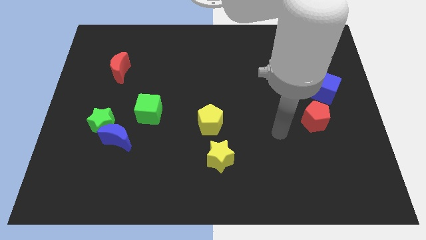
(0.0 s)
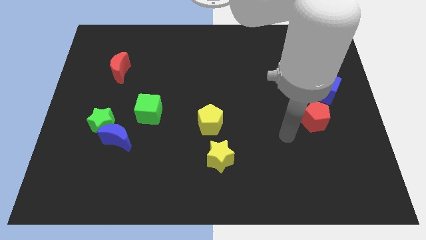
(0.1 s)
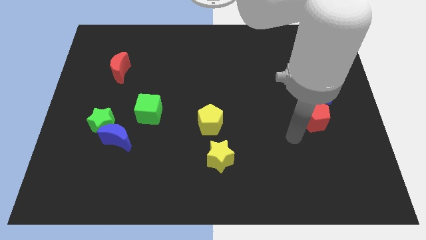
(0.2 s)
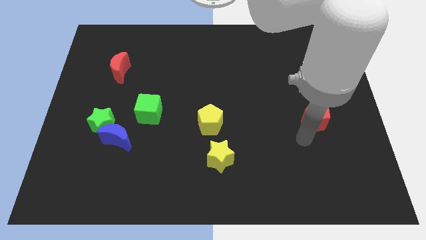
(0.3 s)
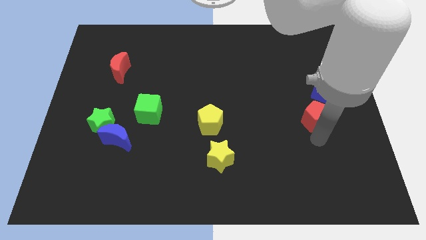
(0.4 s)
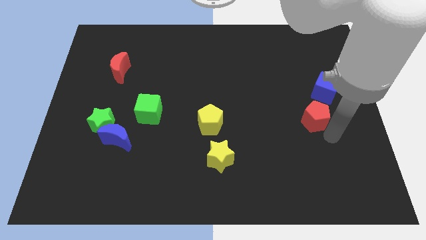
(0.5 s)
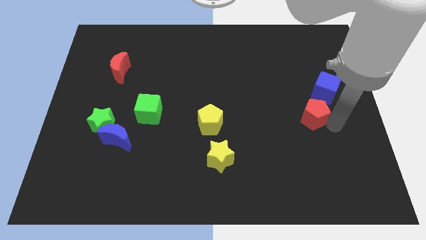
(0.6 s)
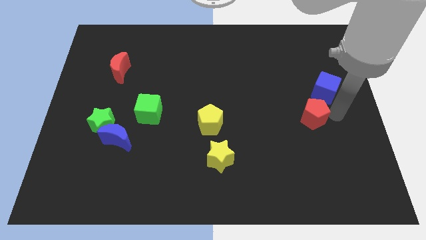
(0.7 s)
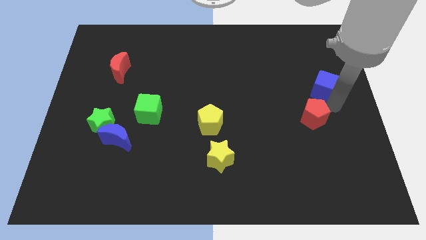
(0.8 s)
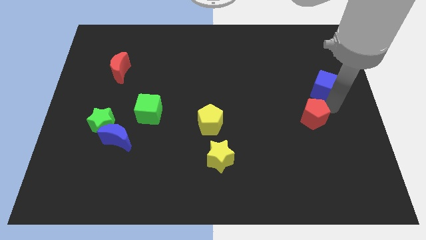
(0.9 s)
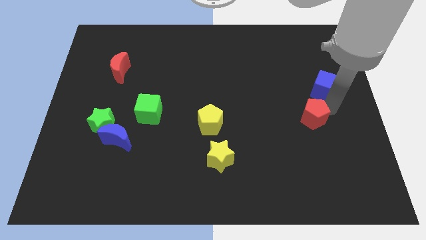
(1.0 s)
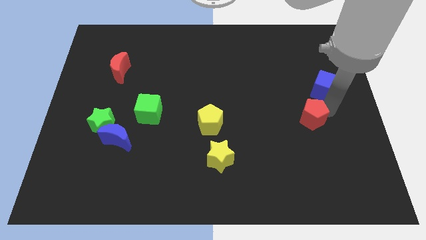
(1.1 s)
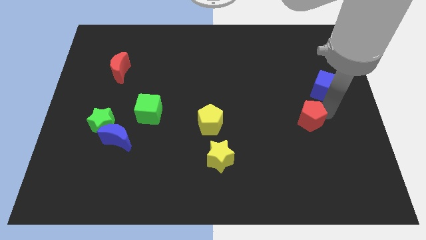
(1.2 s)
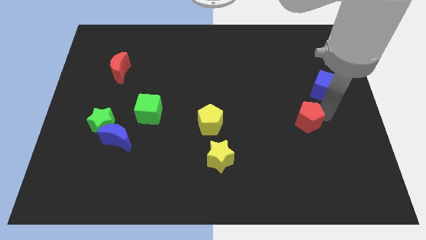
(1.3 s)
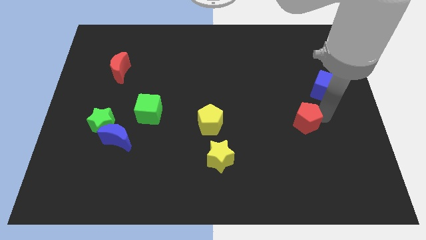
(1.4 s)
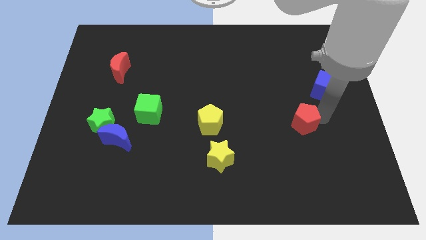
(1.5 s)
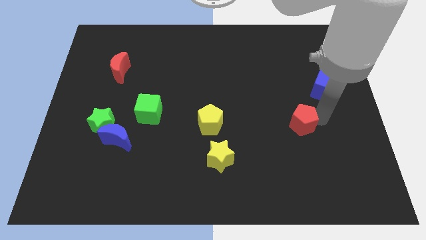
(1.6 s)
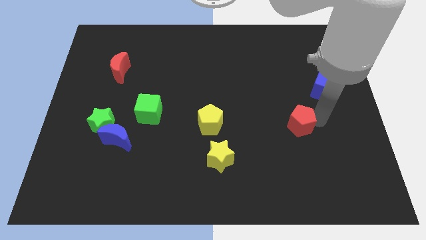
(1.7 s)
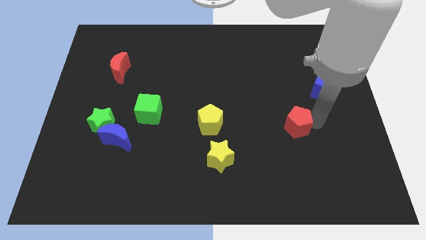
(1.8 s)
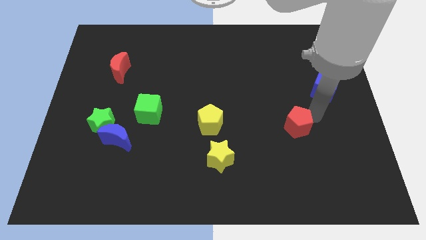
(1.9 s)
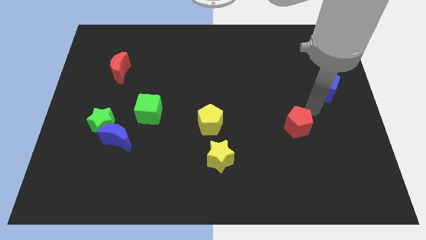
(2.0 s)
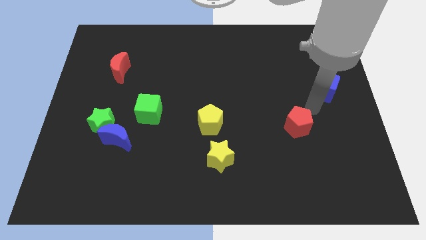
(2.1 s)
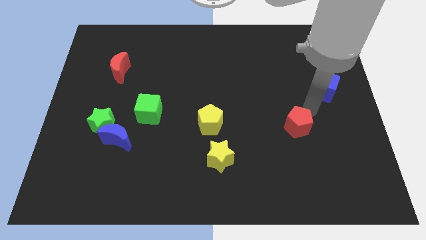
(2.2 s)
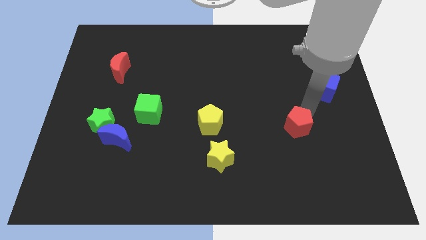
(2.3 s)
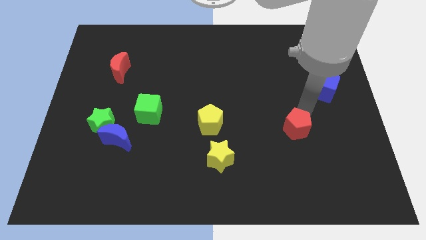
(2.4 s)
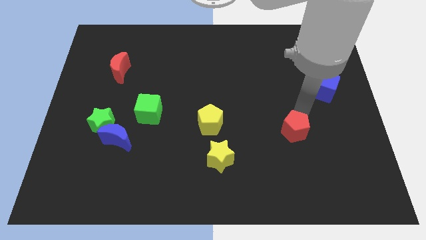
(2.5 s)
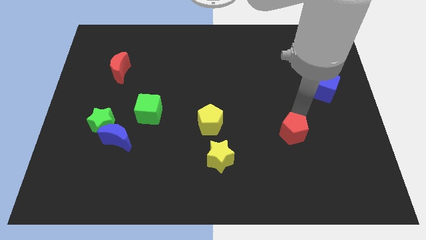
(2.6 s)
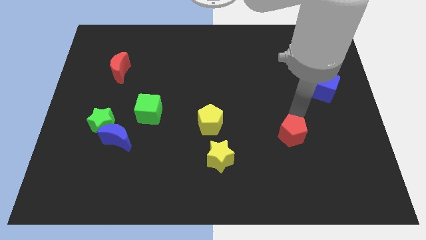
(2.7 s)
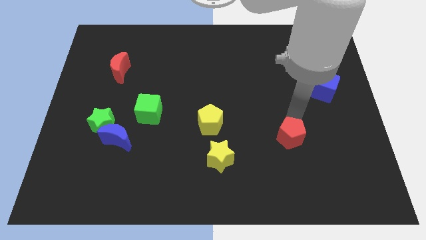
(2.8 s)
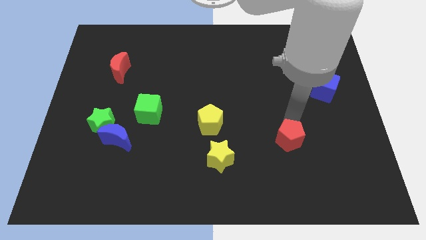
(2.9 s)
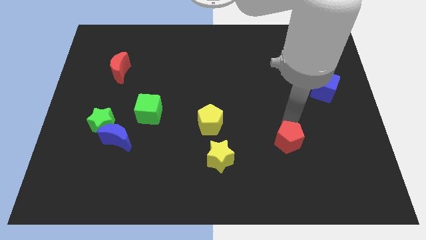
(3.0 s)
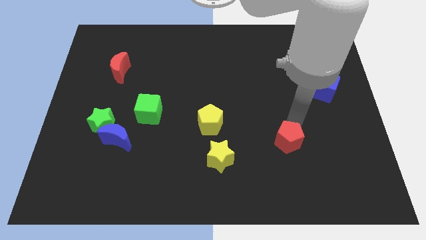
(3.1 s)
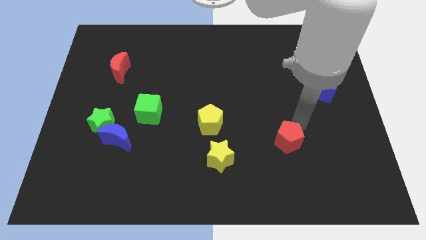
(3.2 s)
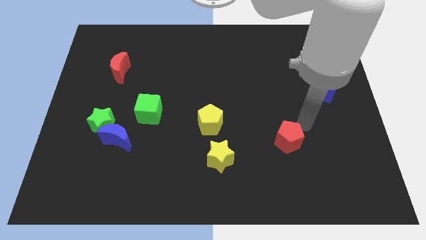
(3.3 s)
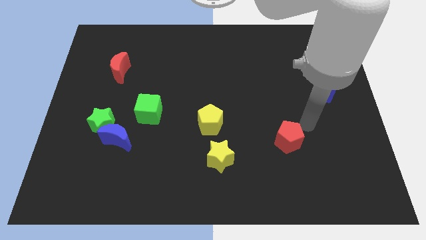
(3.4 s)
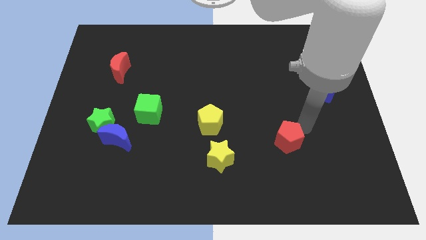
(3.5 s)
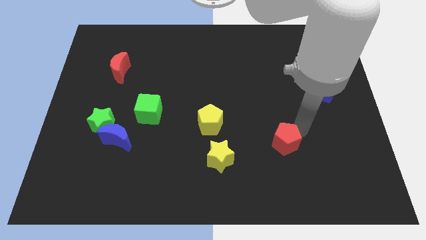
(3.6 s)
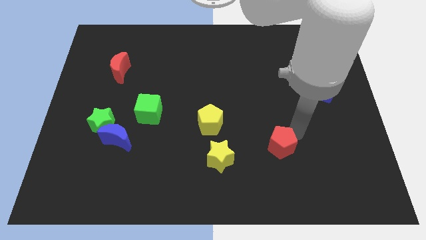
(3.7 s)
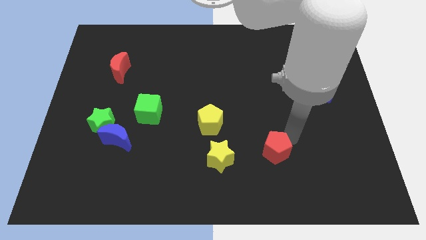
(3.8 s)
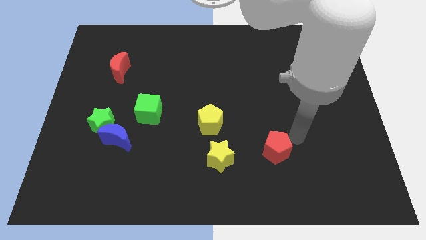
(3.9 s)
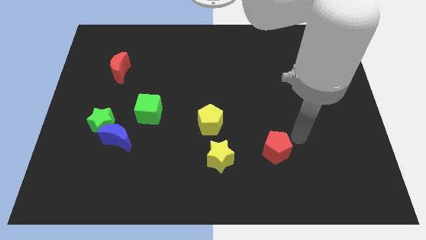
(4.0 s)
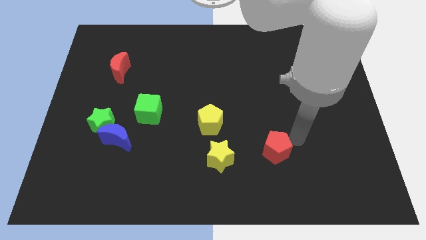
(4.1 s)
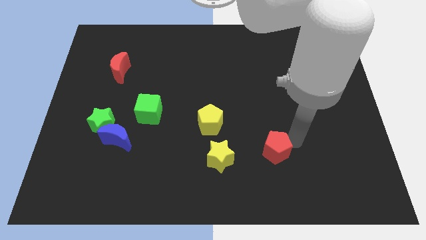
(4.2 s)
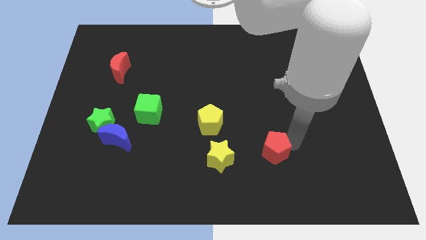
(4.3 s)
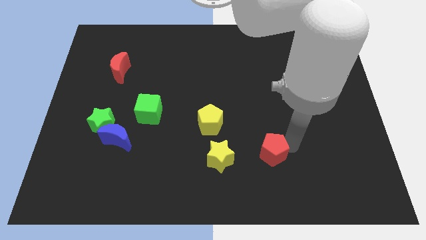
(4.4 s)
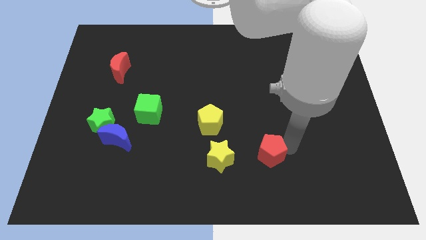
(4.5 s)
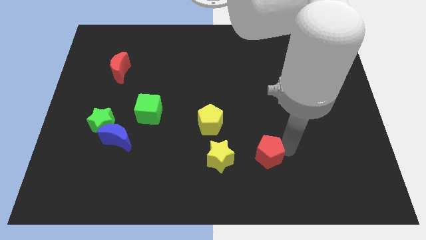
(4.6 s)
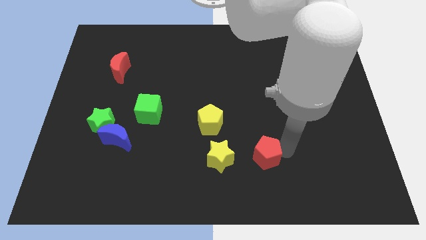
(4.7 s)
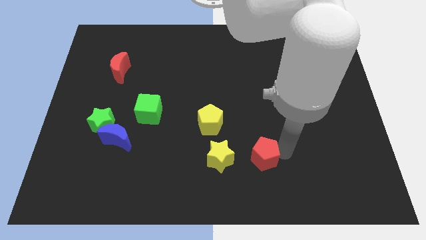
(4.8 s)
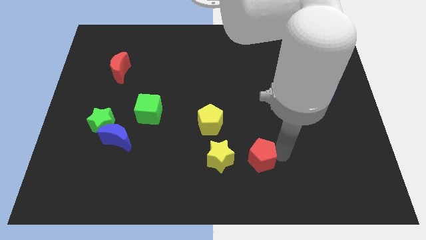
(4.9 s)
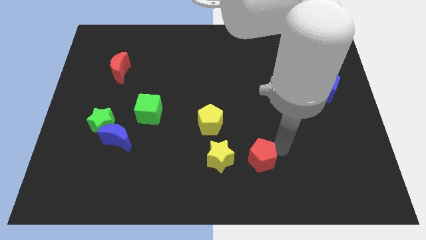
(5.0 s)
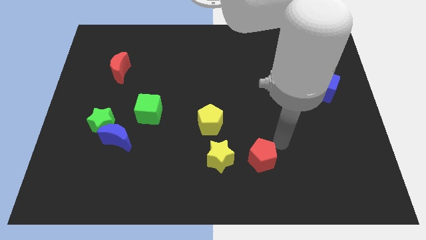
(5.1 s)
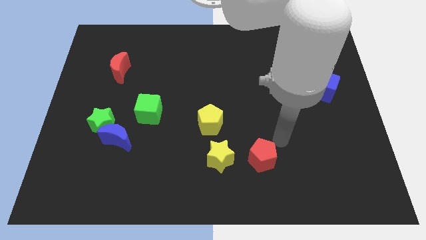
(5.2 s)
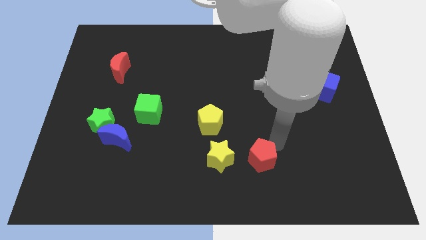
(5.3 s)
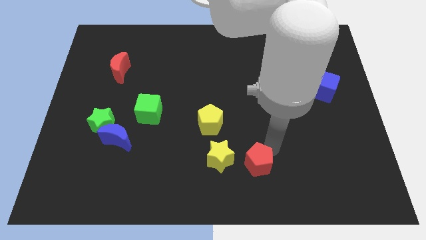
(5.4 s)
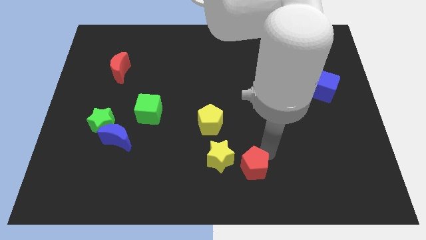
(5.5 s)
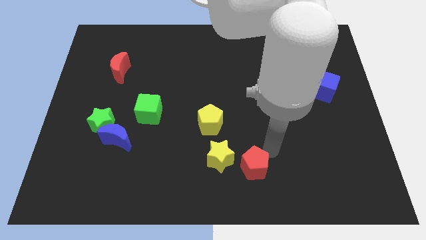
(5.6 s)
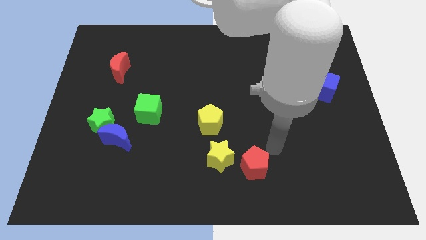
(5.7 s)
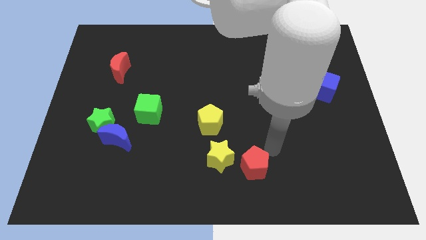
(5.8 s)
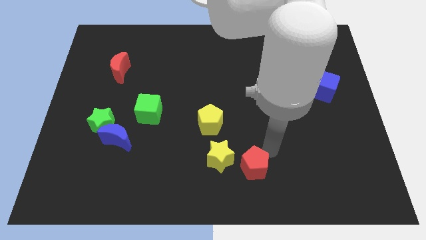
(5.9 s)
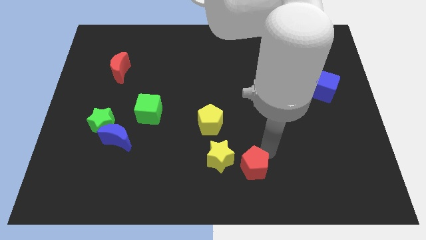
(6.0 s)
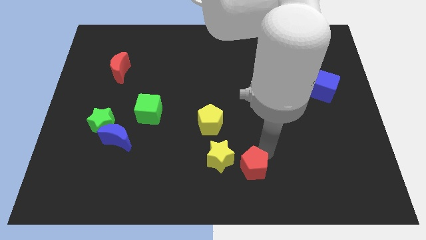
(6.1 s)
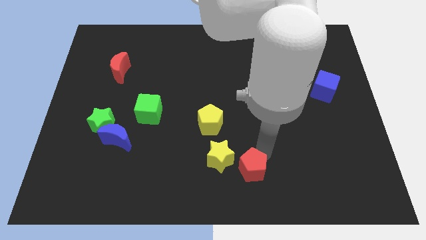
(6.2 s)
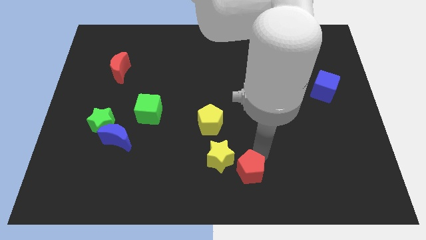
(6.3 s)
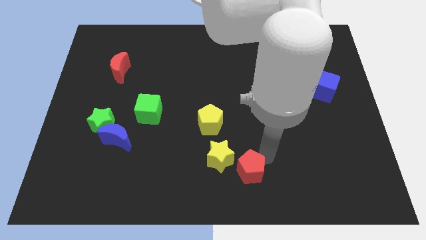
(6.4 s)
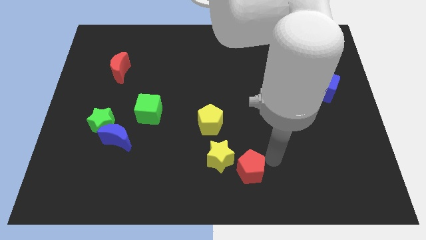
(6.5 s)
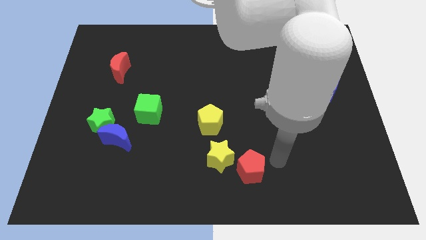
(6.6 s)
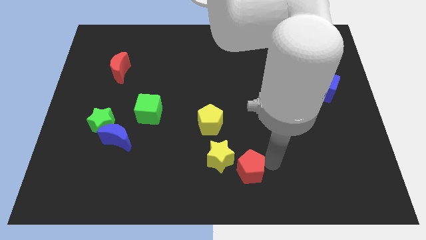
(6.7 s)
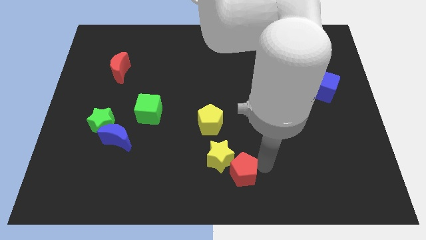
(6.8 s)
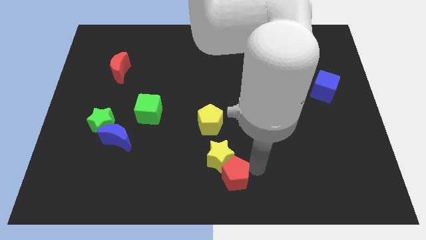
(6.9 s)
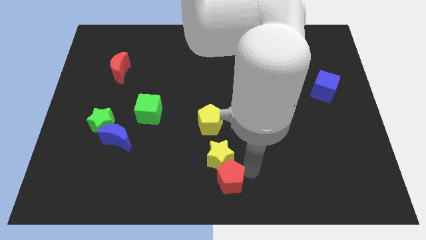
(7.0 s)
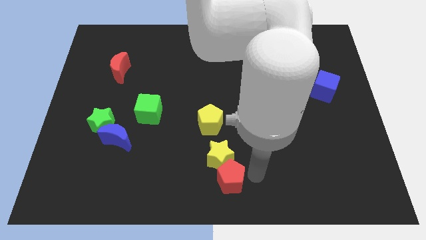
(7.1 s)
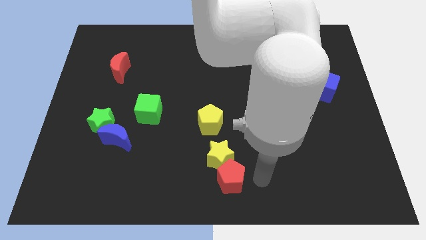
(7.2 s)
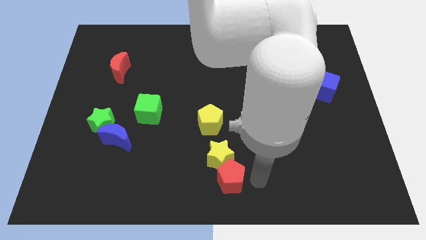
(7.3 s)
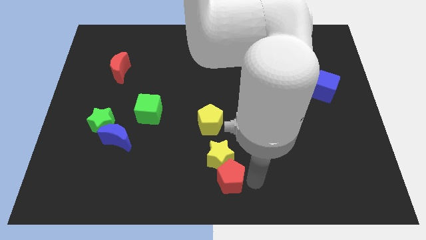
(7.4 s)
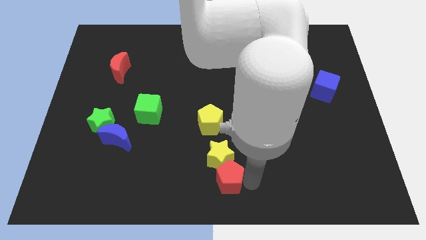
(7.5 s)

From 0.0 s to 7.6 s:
slide the red pentagon diagonally down and to the left of the yellow star

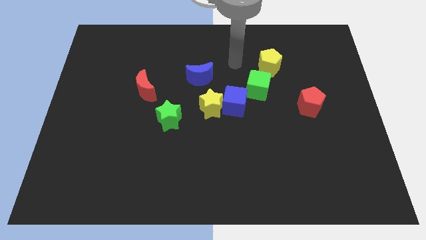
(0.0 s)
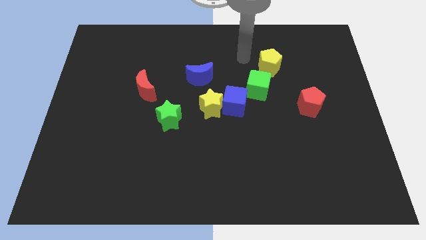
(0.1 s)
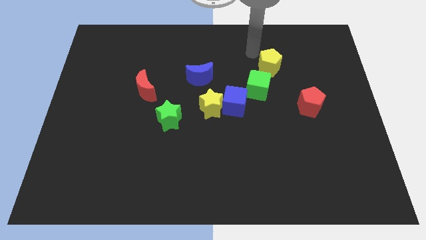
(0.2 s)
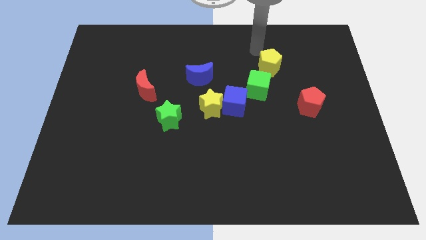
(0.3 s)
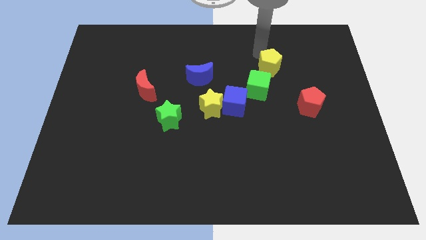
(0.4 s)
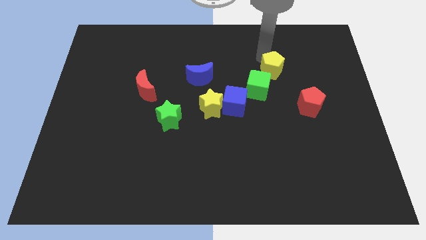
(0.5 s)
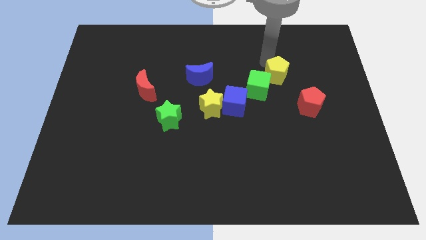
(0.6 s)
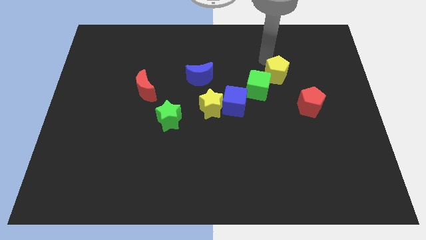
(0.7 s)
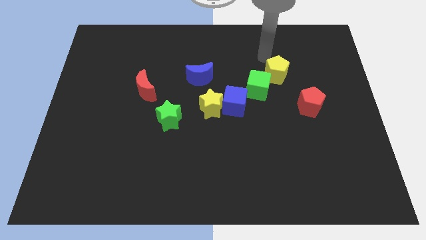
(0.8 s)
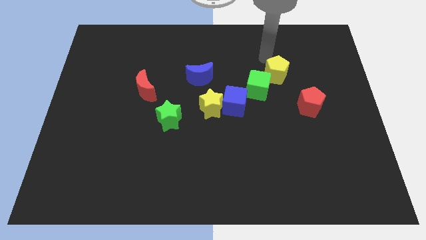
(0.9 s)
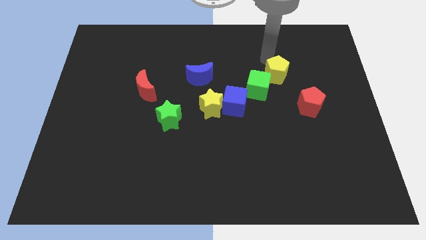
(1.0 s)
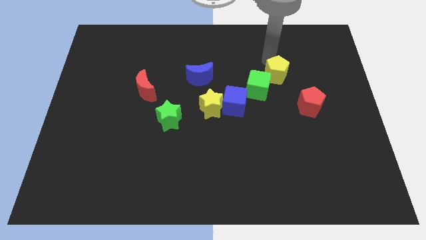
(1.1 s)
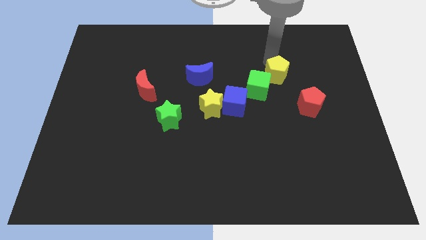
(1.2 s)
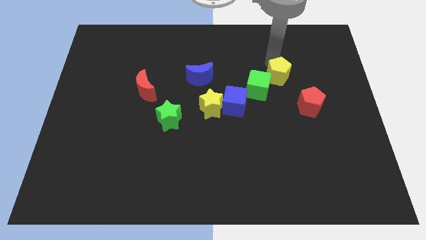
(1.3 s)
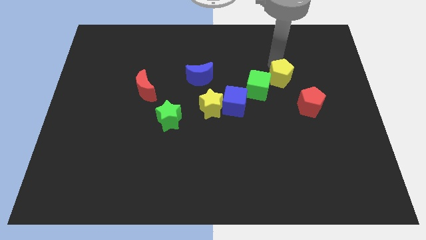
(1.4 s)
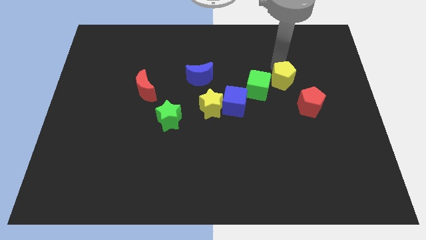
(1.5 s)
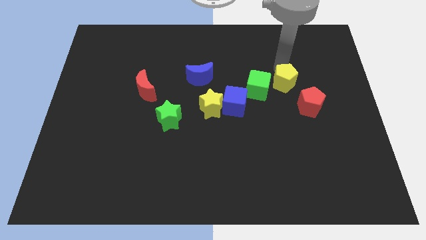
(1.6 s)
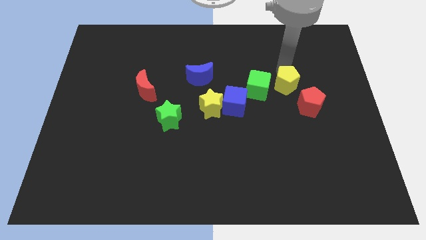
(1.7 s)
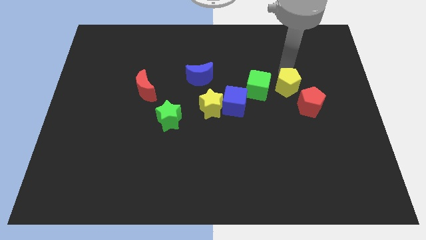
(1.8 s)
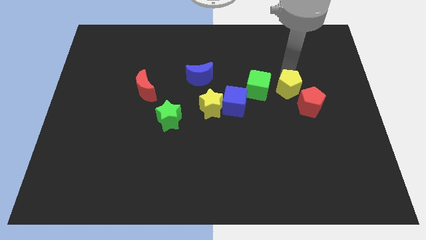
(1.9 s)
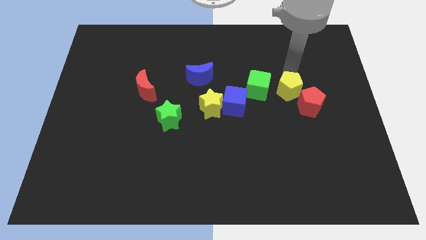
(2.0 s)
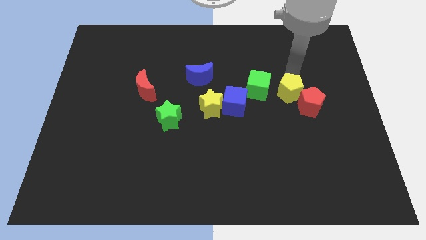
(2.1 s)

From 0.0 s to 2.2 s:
slide the yellow pentagon diagonally down and to the right of the green cube
